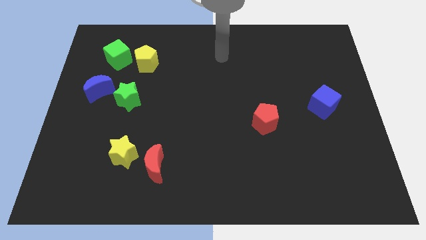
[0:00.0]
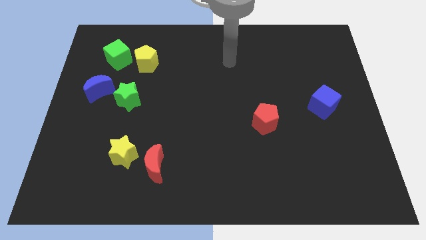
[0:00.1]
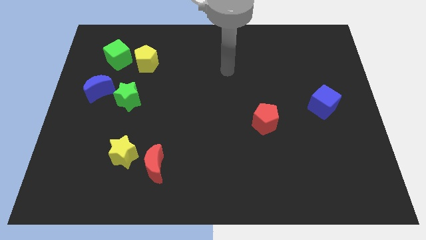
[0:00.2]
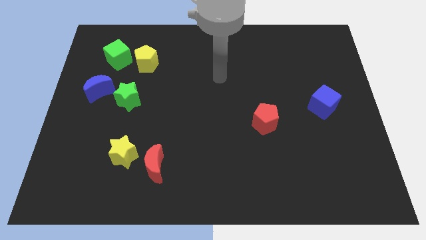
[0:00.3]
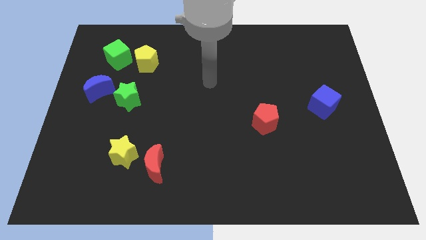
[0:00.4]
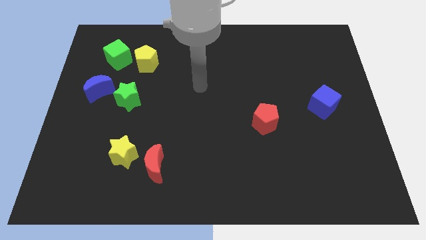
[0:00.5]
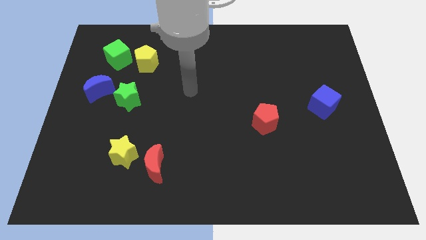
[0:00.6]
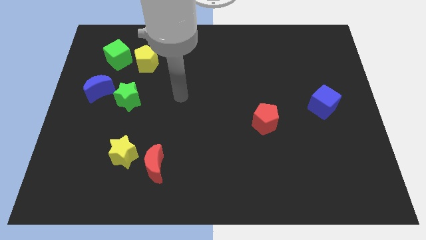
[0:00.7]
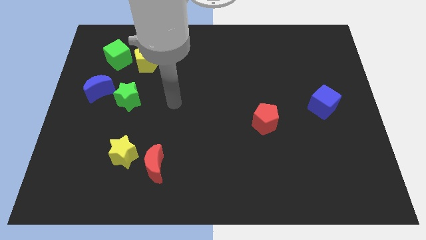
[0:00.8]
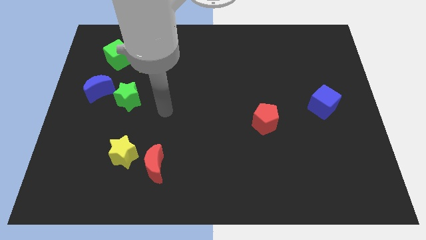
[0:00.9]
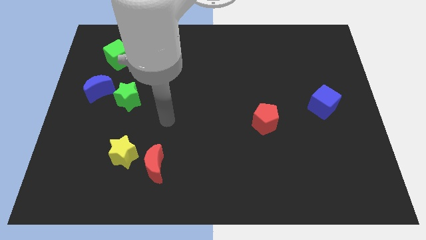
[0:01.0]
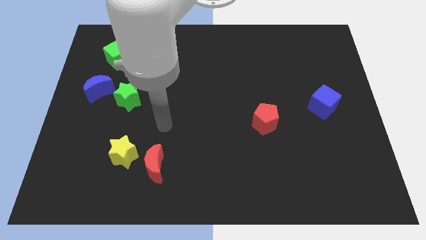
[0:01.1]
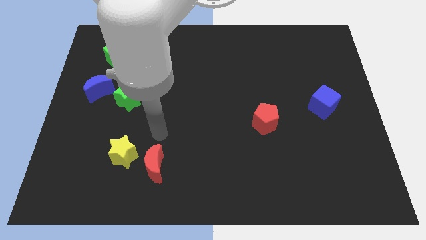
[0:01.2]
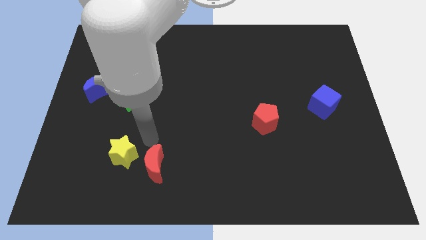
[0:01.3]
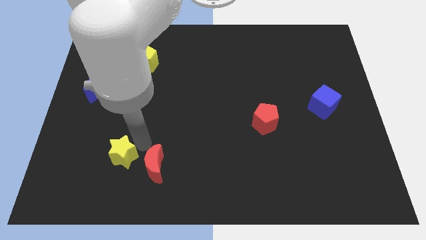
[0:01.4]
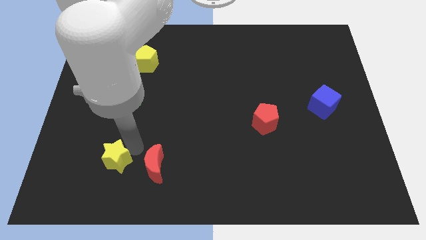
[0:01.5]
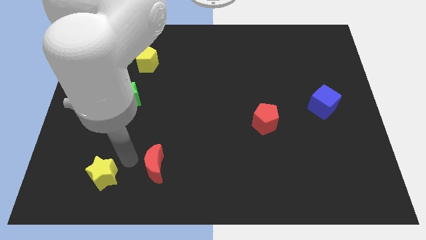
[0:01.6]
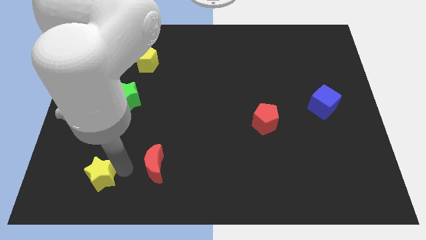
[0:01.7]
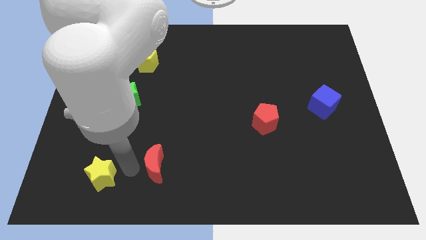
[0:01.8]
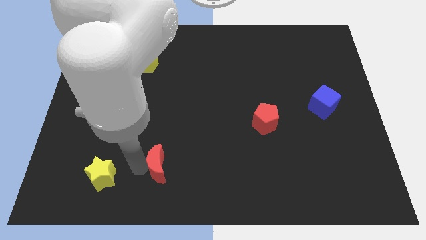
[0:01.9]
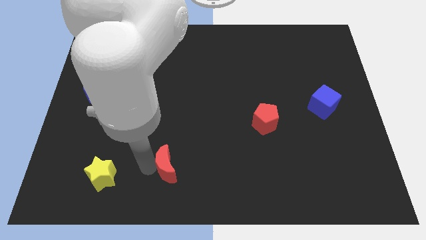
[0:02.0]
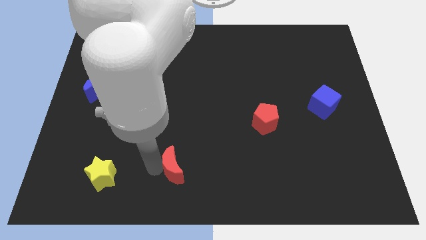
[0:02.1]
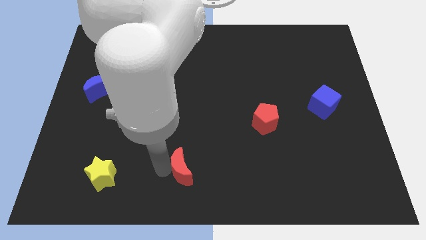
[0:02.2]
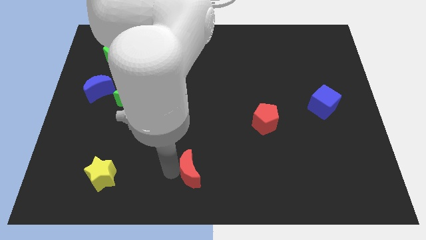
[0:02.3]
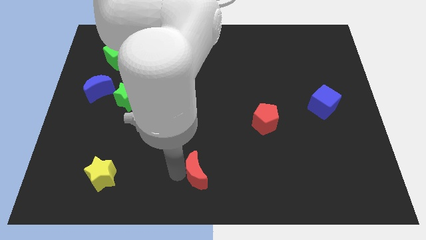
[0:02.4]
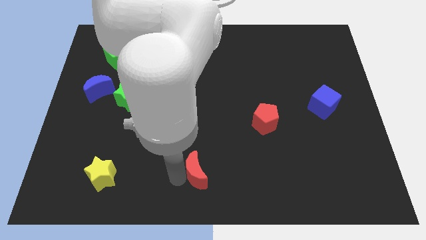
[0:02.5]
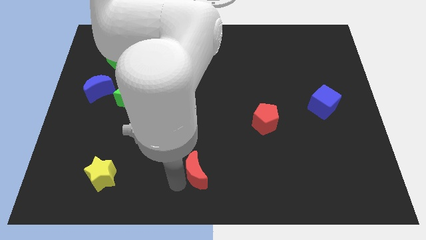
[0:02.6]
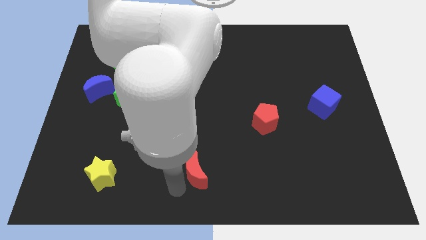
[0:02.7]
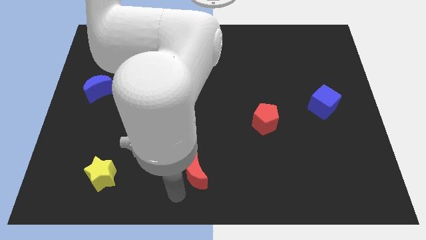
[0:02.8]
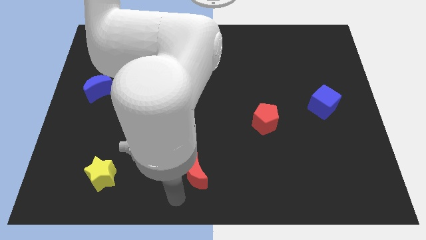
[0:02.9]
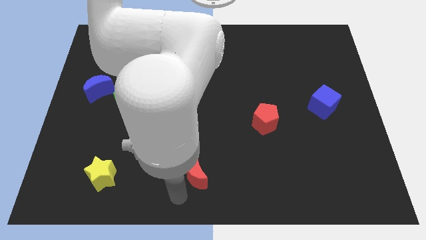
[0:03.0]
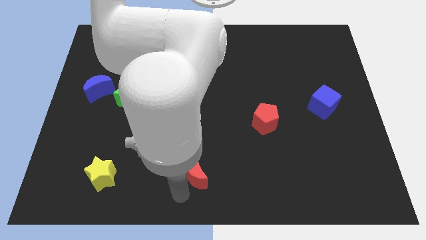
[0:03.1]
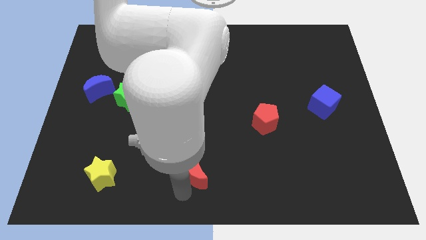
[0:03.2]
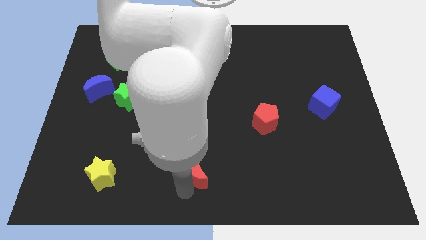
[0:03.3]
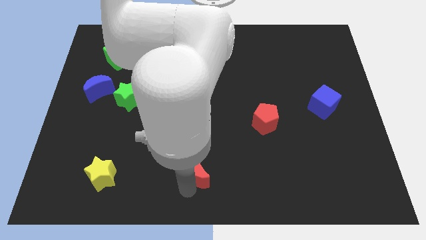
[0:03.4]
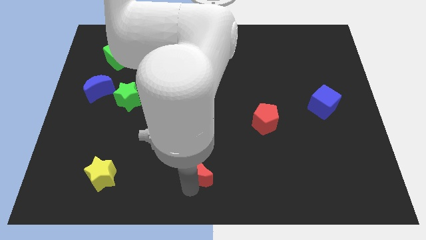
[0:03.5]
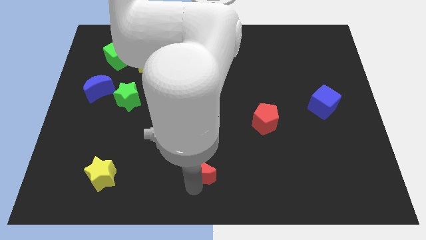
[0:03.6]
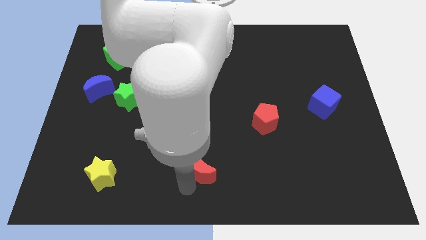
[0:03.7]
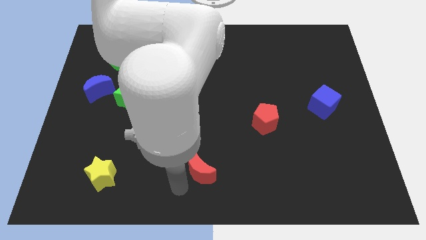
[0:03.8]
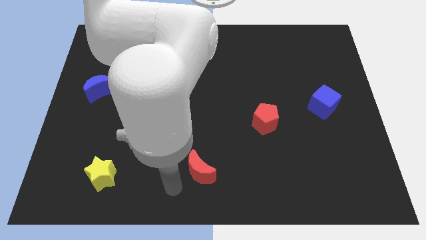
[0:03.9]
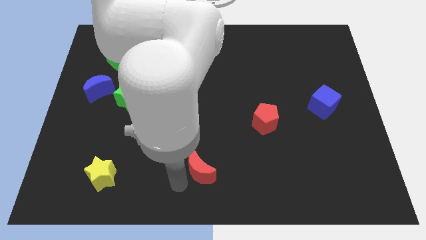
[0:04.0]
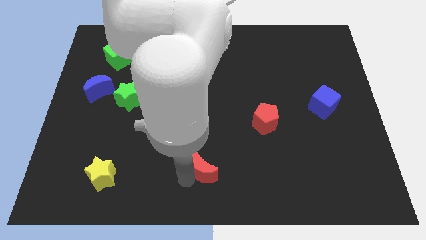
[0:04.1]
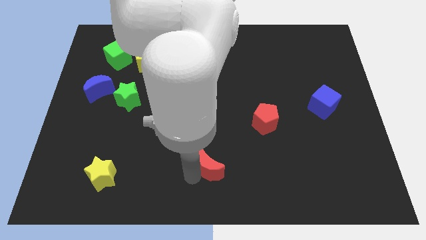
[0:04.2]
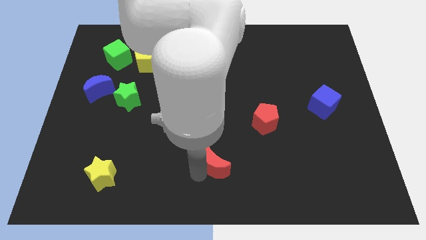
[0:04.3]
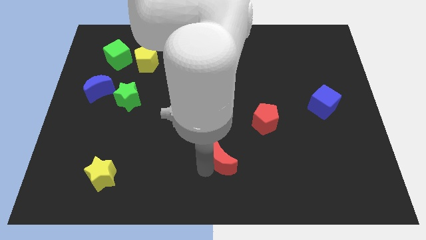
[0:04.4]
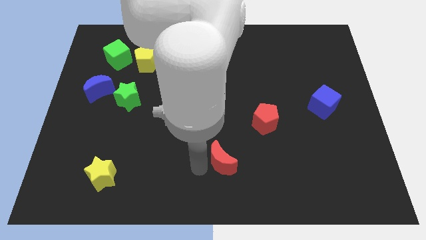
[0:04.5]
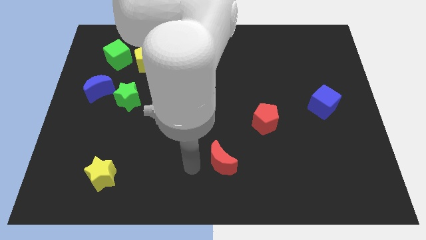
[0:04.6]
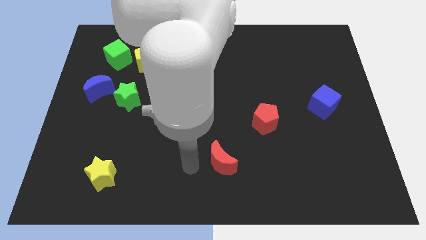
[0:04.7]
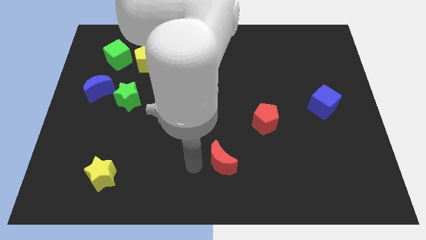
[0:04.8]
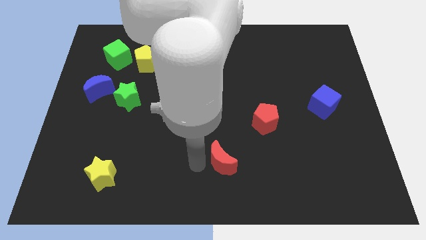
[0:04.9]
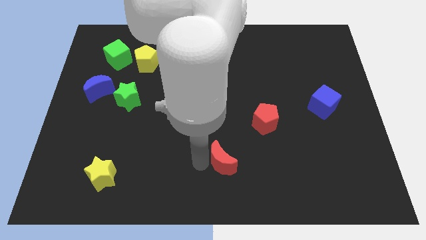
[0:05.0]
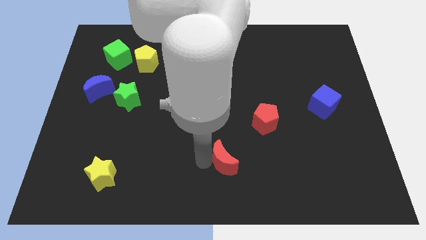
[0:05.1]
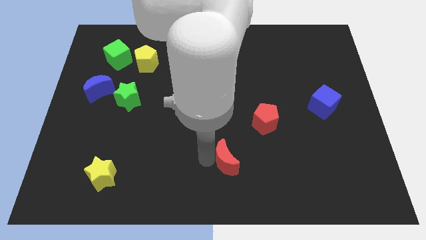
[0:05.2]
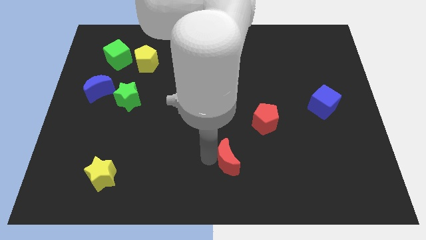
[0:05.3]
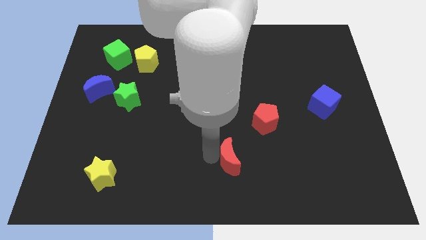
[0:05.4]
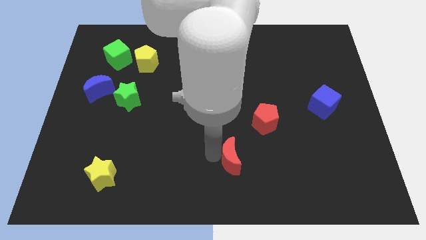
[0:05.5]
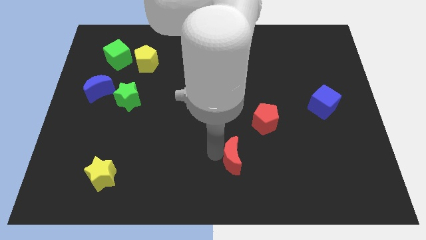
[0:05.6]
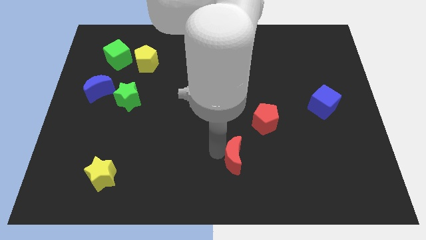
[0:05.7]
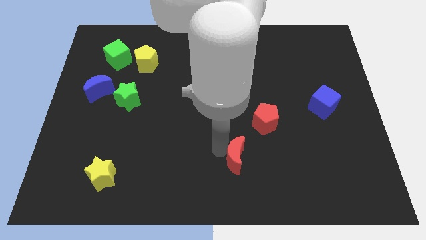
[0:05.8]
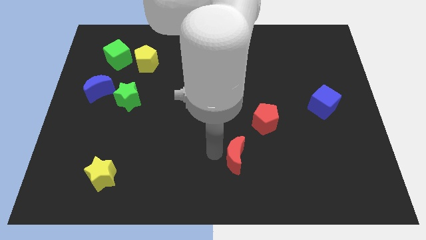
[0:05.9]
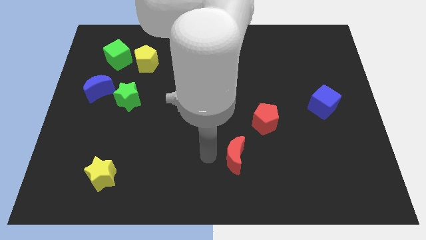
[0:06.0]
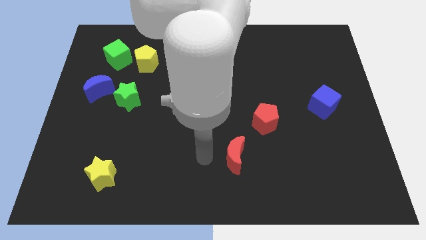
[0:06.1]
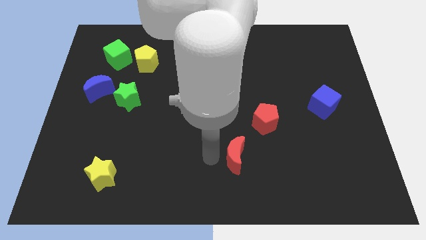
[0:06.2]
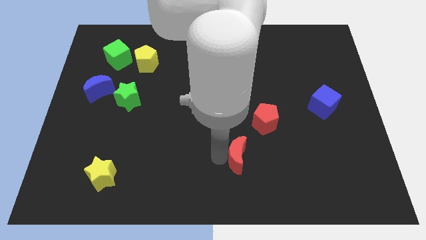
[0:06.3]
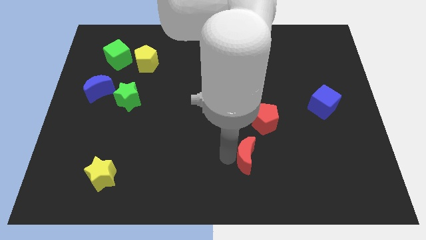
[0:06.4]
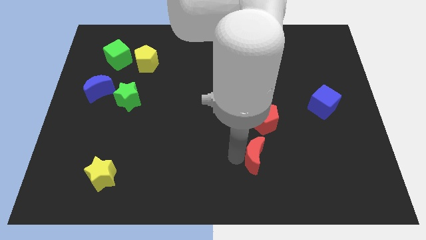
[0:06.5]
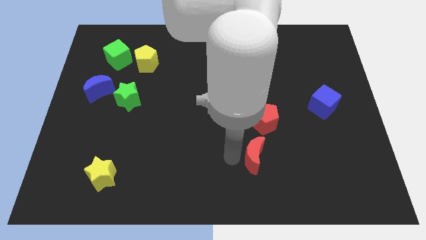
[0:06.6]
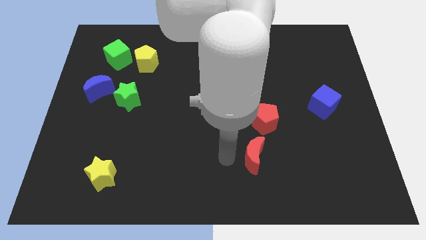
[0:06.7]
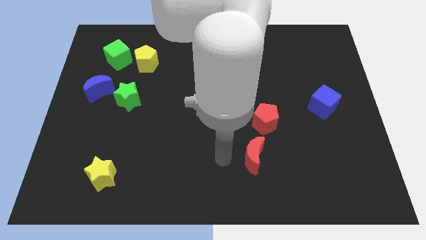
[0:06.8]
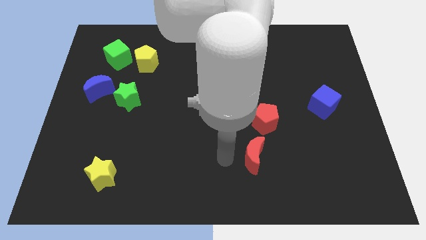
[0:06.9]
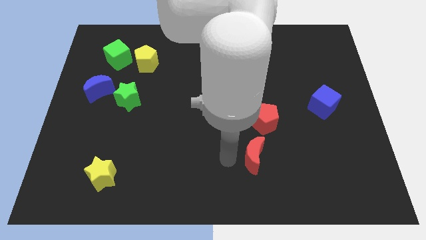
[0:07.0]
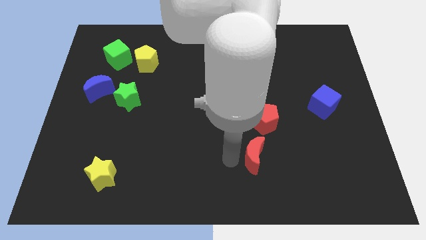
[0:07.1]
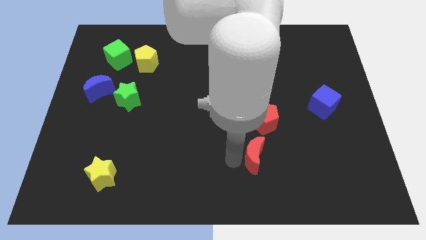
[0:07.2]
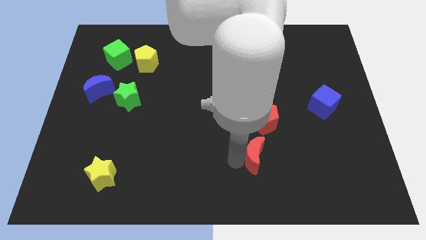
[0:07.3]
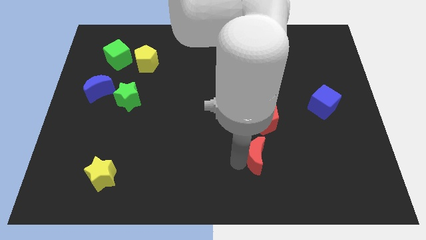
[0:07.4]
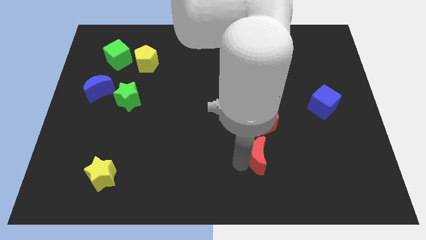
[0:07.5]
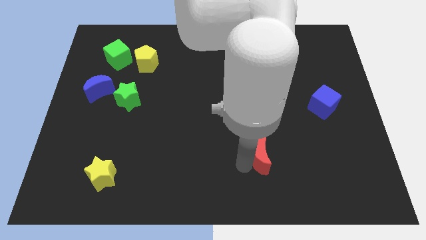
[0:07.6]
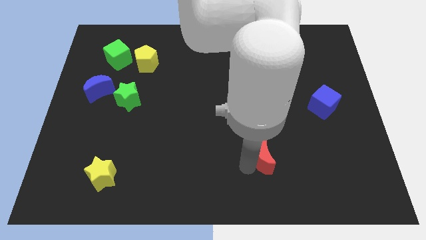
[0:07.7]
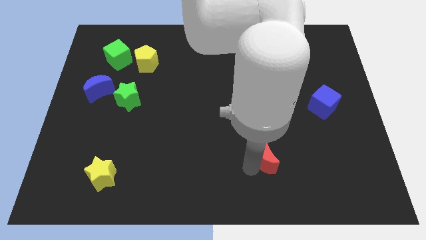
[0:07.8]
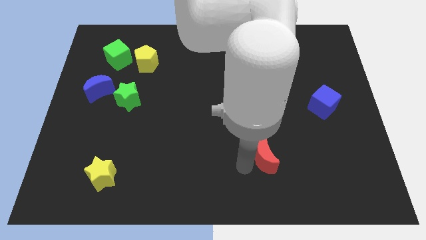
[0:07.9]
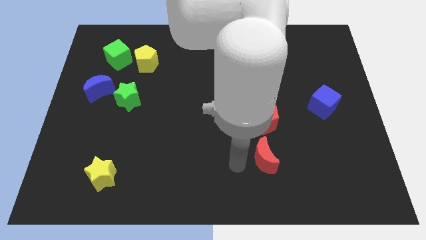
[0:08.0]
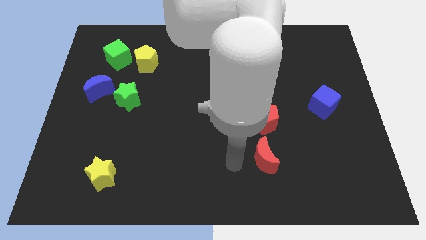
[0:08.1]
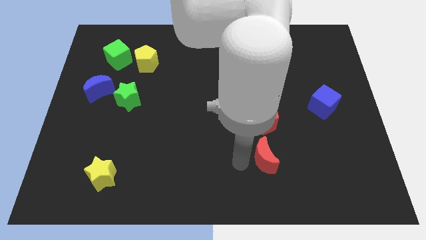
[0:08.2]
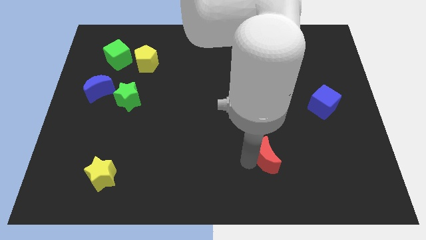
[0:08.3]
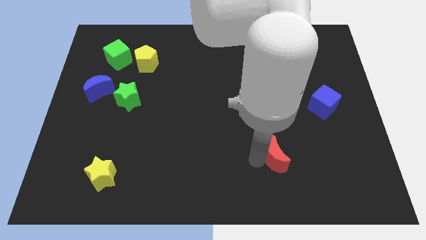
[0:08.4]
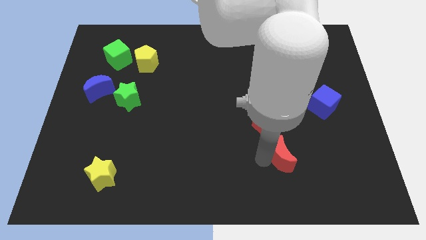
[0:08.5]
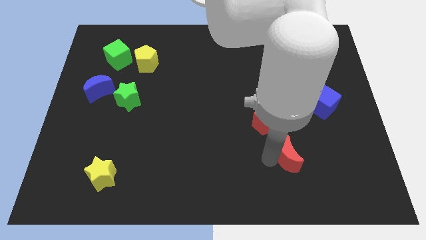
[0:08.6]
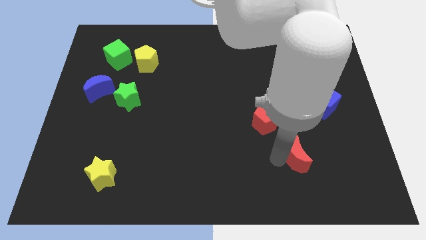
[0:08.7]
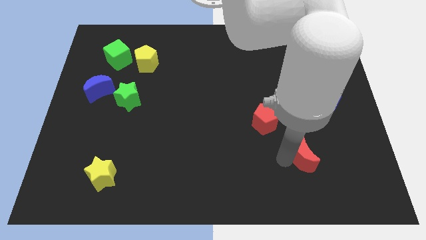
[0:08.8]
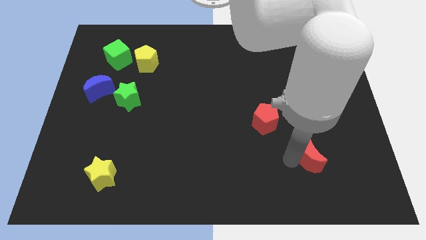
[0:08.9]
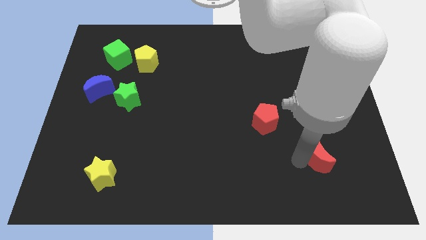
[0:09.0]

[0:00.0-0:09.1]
slide the red moon to the bottom side of the blue cube
